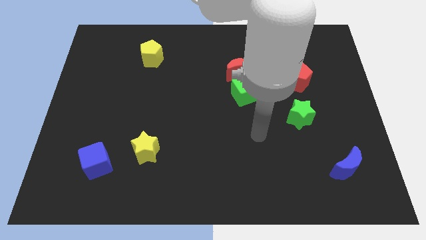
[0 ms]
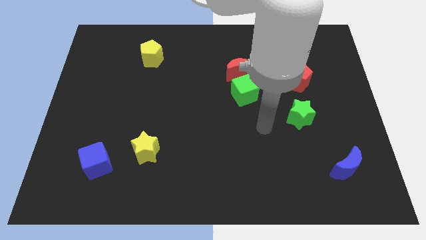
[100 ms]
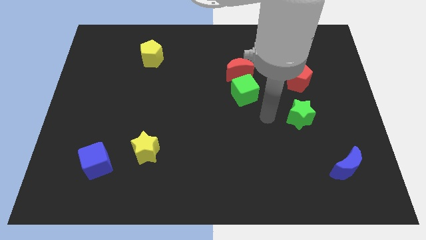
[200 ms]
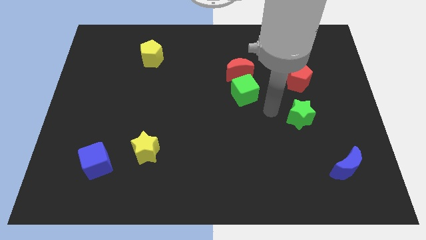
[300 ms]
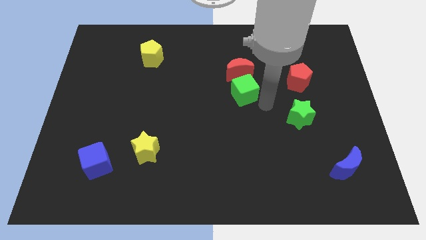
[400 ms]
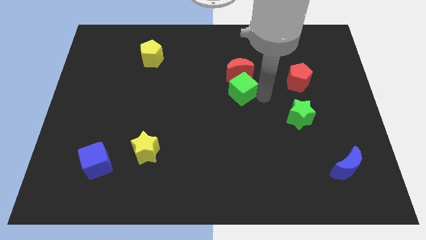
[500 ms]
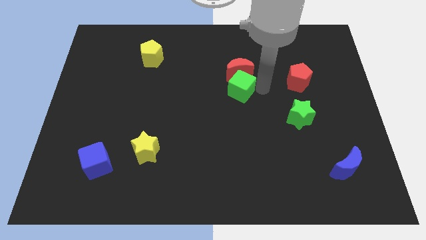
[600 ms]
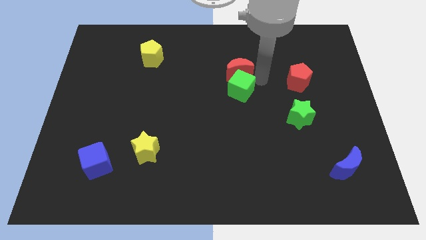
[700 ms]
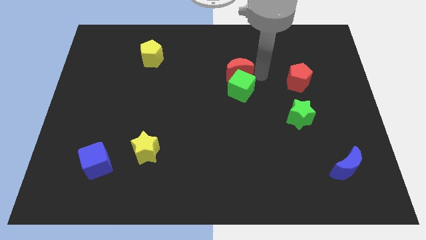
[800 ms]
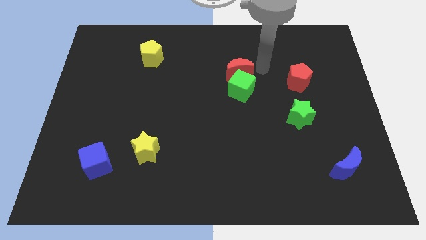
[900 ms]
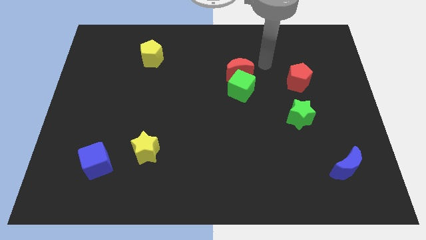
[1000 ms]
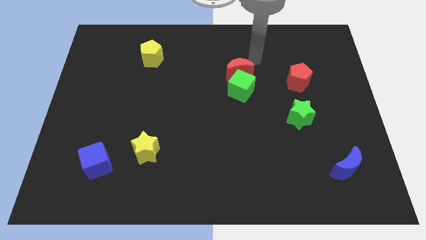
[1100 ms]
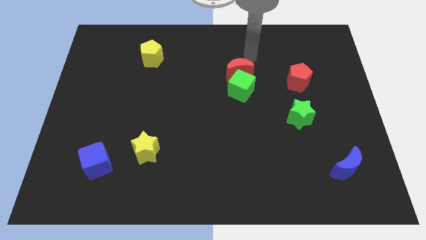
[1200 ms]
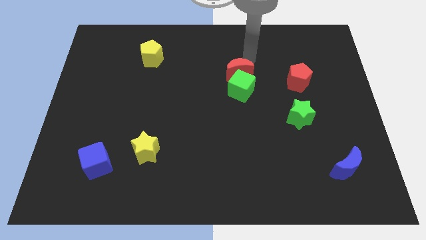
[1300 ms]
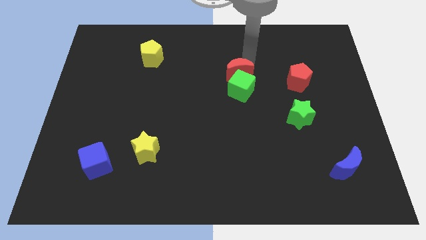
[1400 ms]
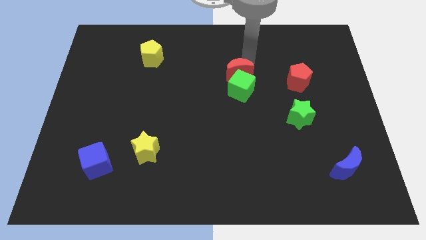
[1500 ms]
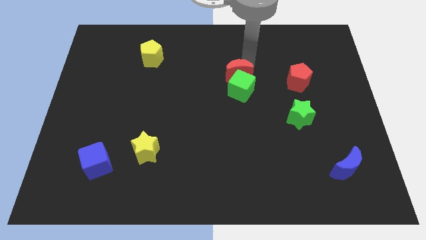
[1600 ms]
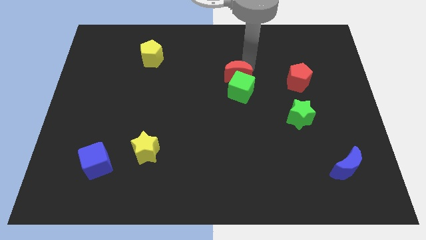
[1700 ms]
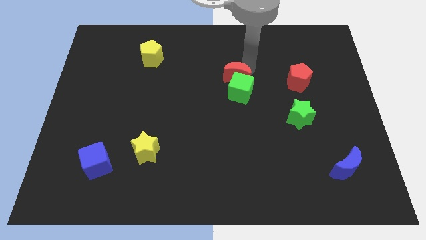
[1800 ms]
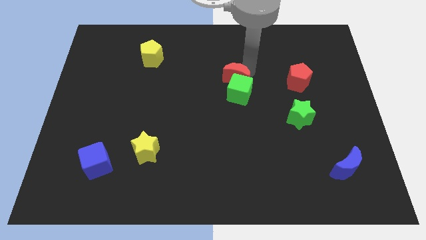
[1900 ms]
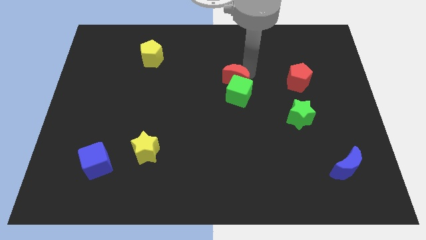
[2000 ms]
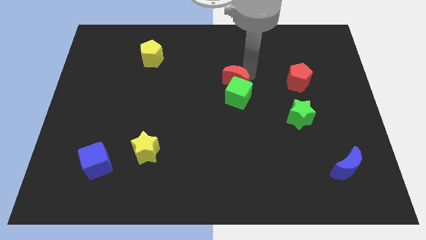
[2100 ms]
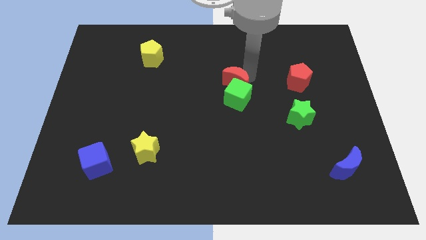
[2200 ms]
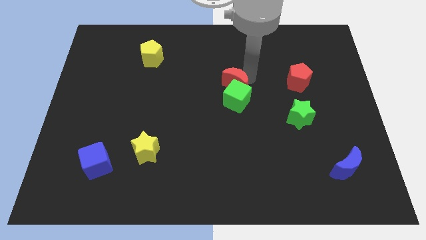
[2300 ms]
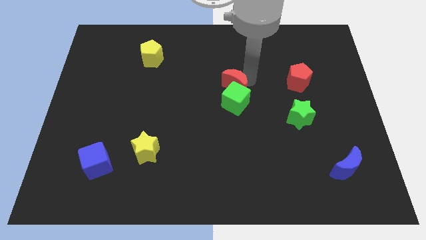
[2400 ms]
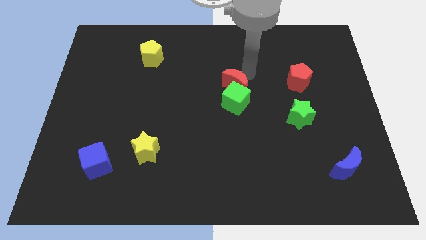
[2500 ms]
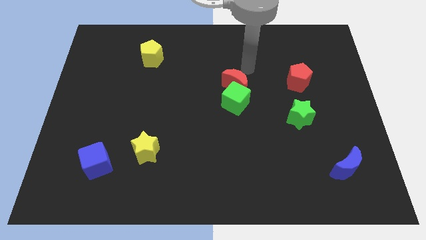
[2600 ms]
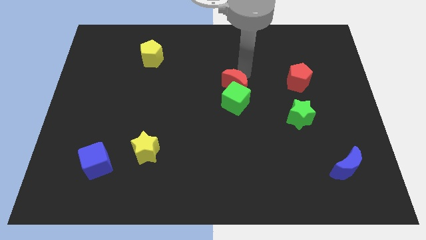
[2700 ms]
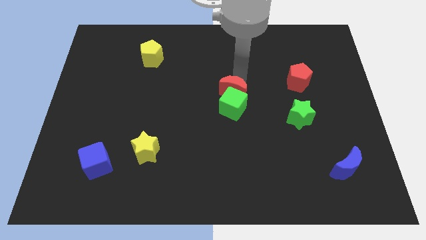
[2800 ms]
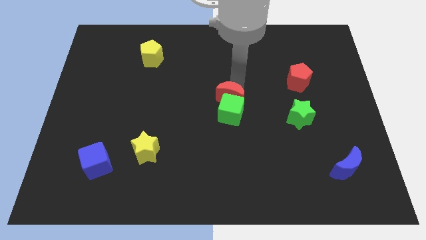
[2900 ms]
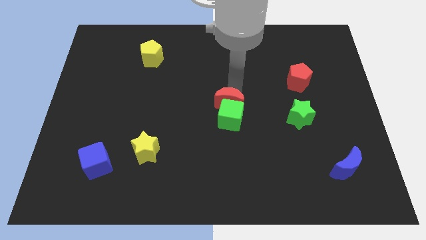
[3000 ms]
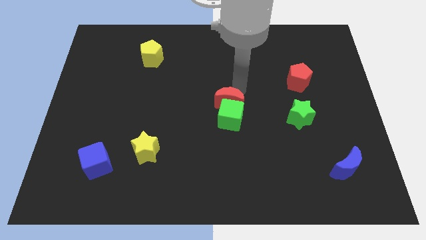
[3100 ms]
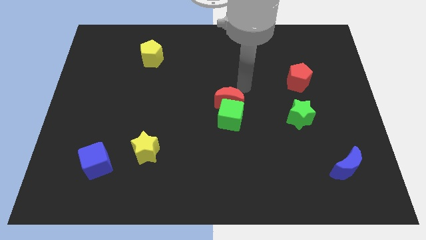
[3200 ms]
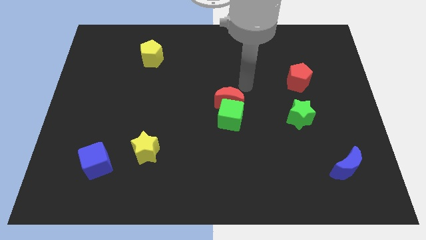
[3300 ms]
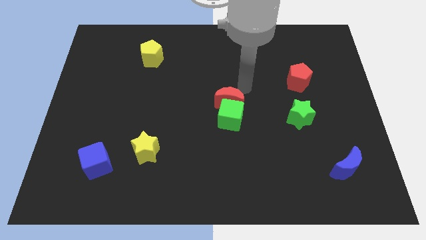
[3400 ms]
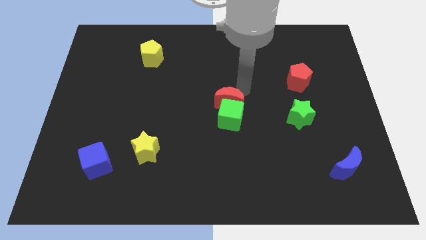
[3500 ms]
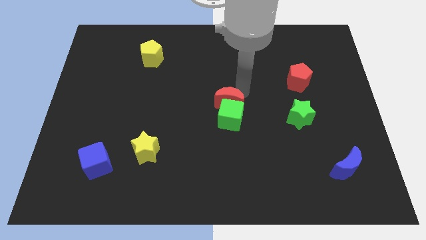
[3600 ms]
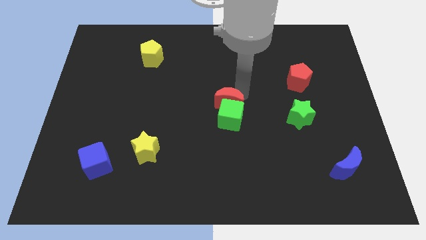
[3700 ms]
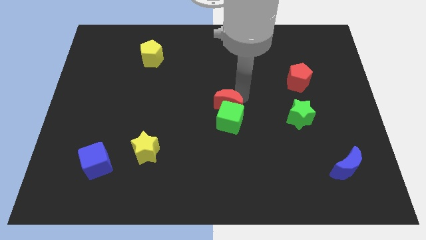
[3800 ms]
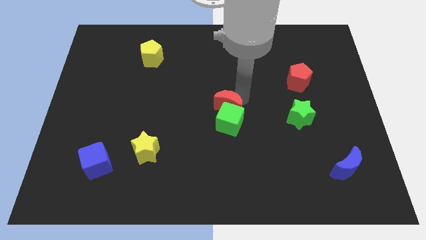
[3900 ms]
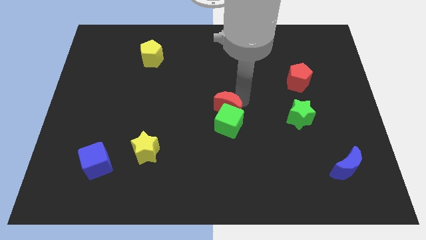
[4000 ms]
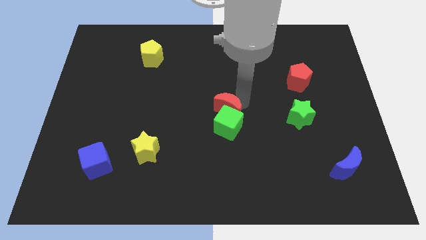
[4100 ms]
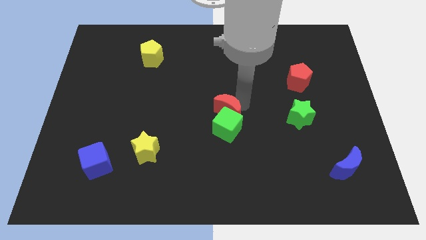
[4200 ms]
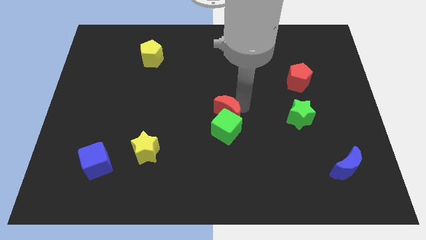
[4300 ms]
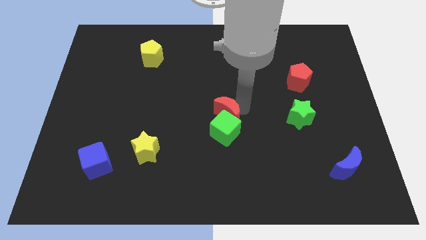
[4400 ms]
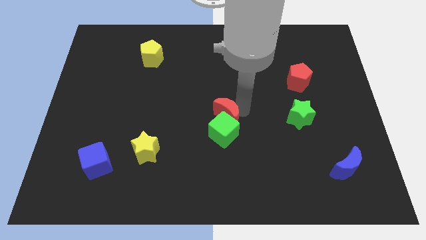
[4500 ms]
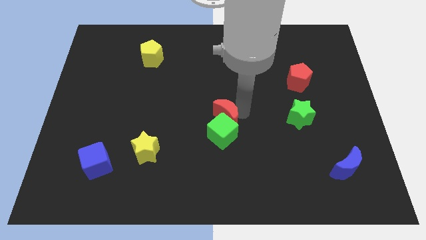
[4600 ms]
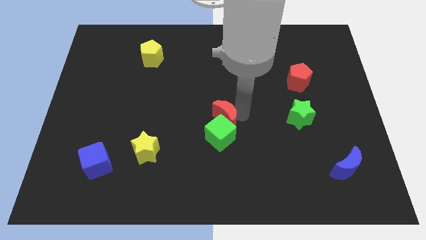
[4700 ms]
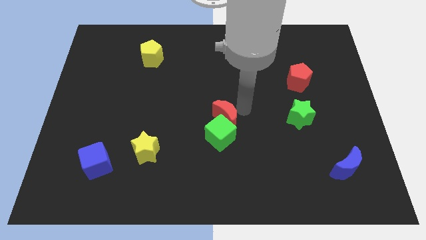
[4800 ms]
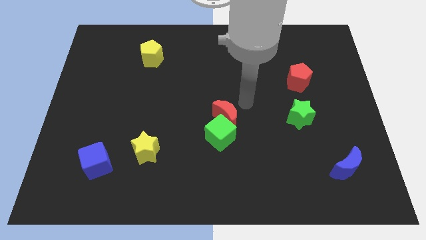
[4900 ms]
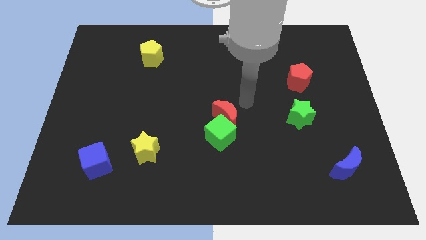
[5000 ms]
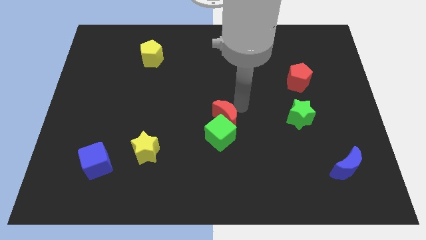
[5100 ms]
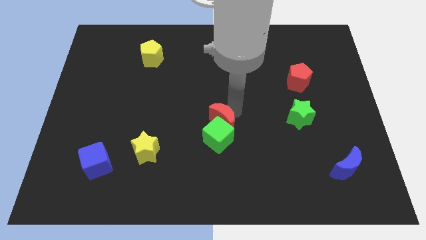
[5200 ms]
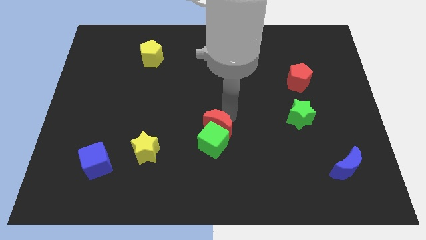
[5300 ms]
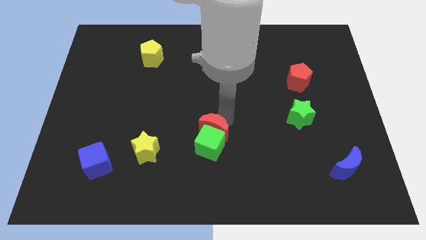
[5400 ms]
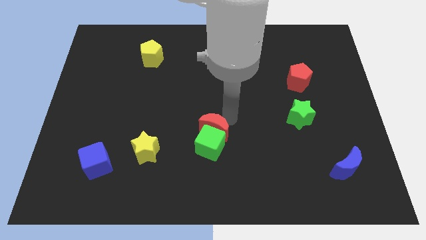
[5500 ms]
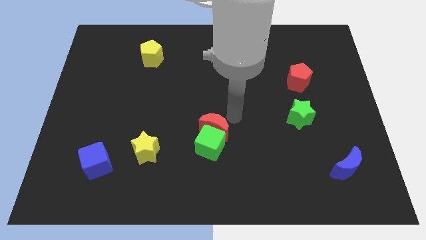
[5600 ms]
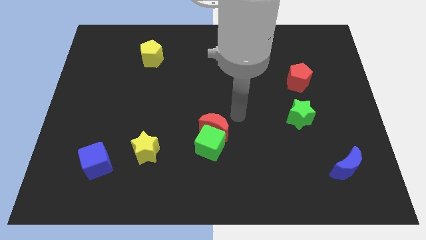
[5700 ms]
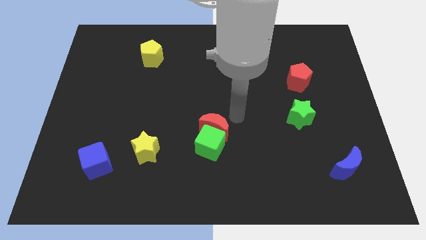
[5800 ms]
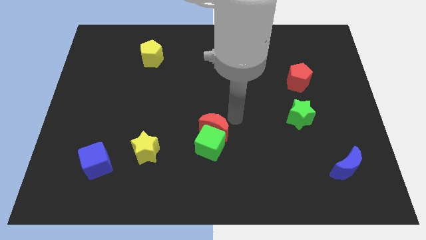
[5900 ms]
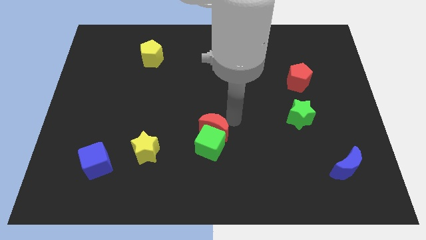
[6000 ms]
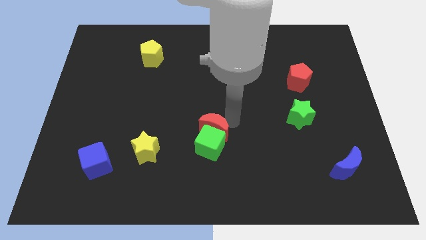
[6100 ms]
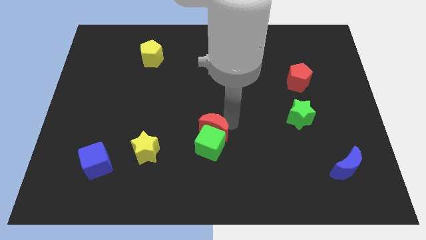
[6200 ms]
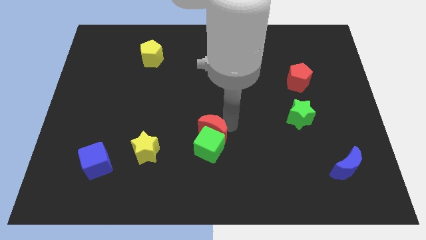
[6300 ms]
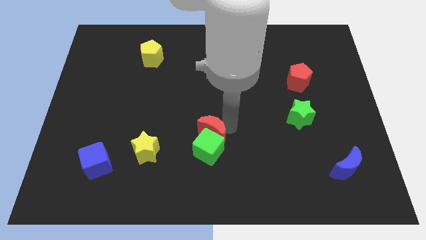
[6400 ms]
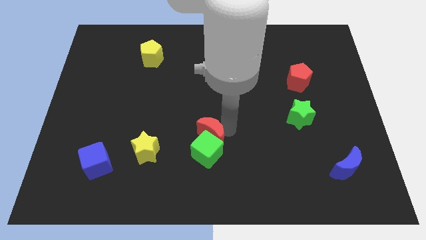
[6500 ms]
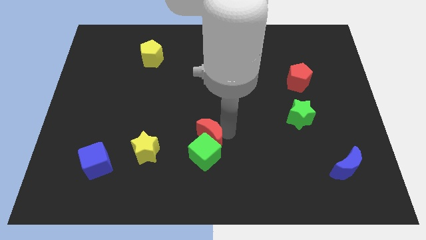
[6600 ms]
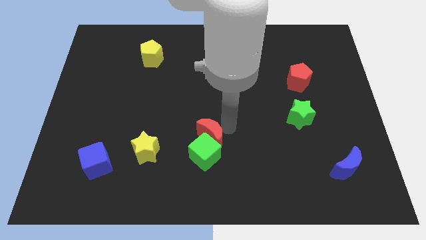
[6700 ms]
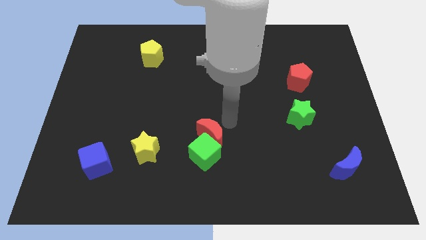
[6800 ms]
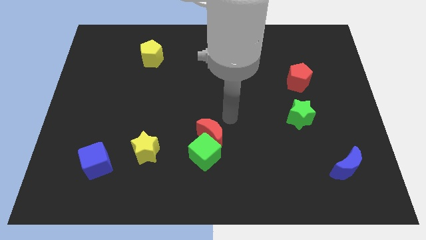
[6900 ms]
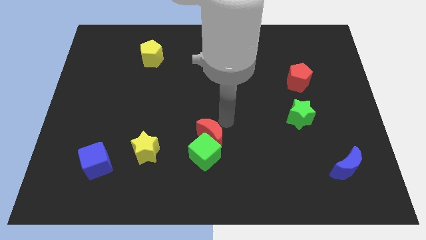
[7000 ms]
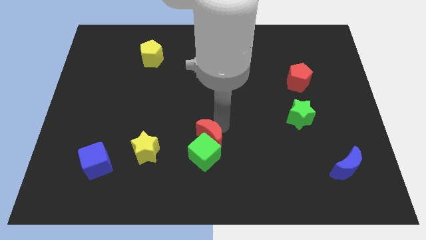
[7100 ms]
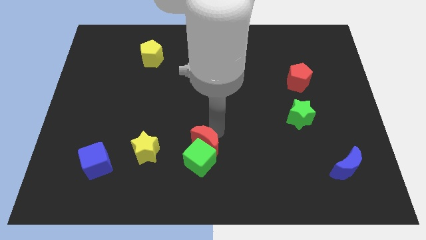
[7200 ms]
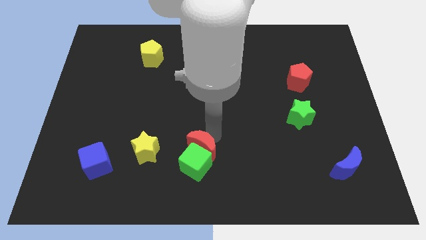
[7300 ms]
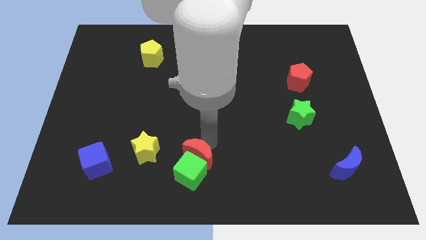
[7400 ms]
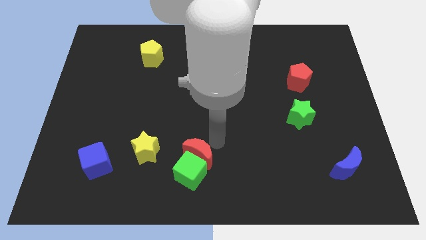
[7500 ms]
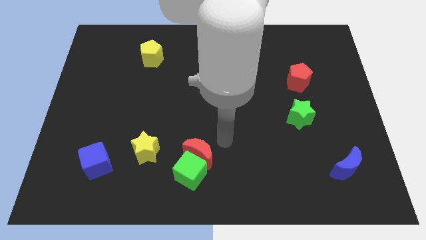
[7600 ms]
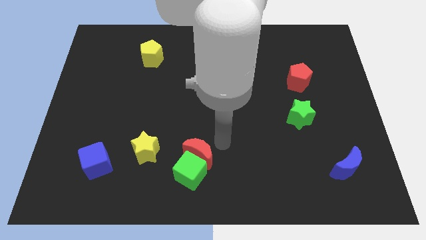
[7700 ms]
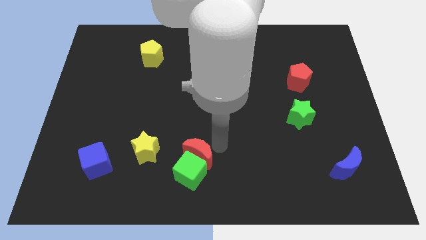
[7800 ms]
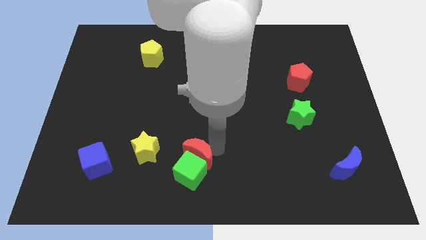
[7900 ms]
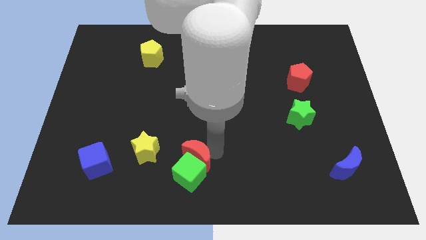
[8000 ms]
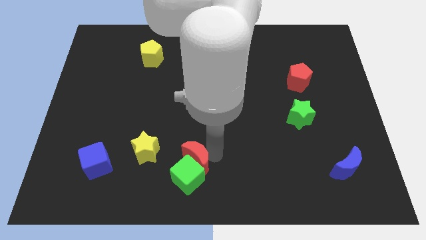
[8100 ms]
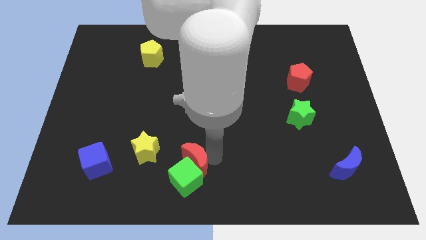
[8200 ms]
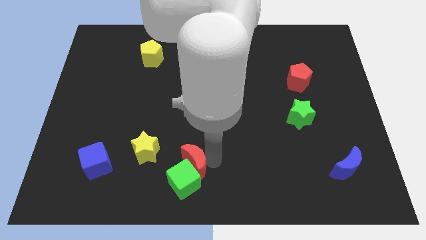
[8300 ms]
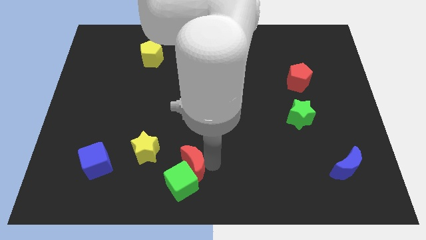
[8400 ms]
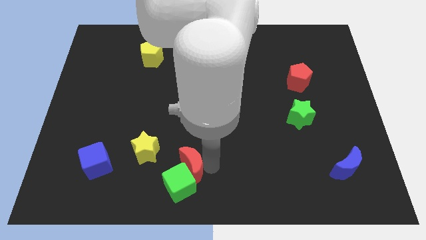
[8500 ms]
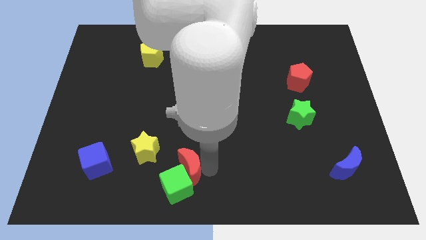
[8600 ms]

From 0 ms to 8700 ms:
put the red moon diagonally down and to the right of the yellow star
